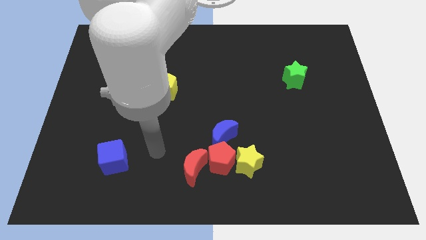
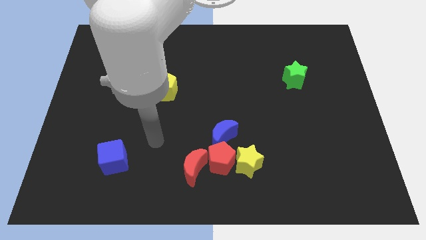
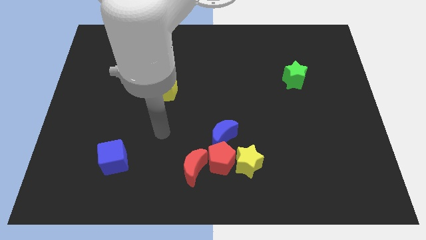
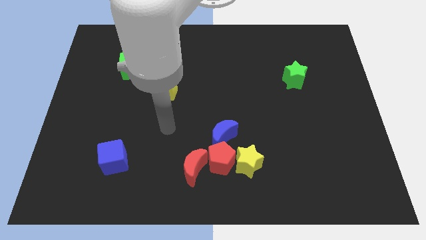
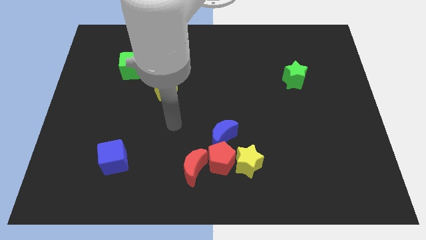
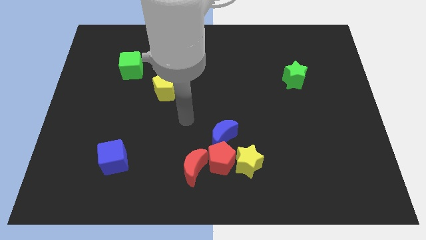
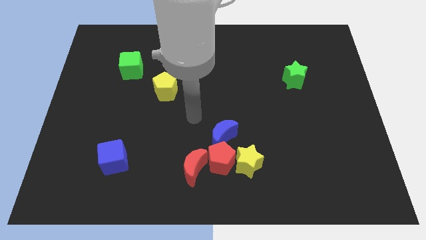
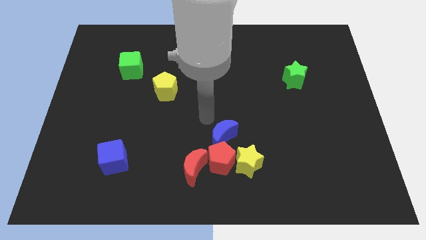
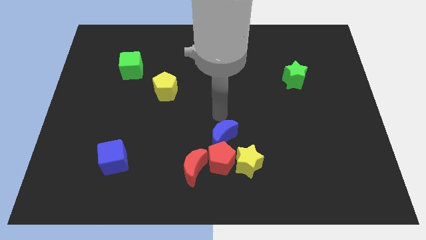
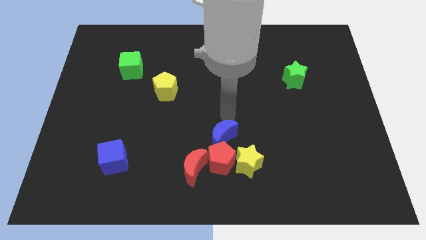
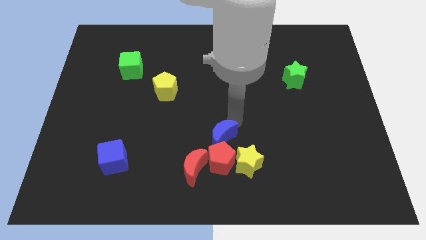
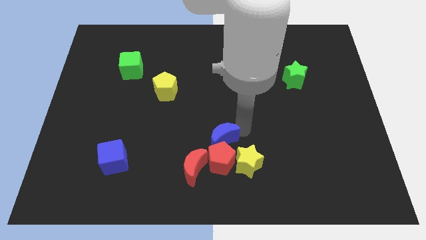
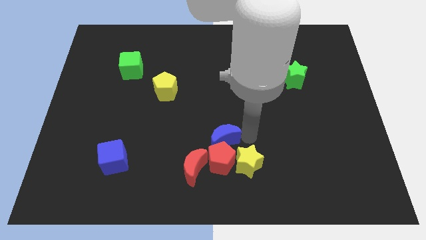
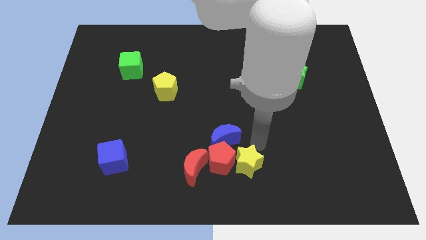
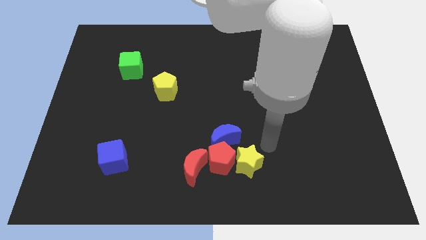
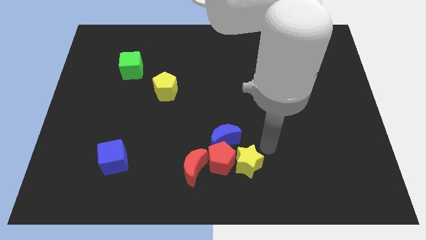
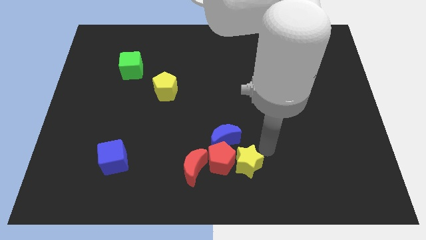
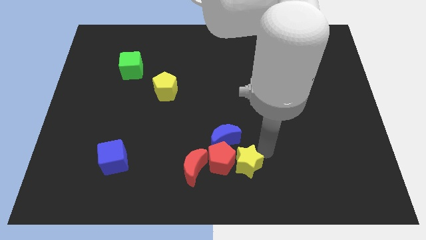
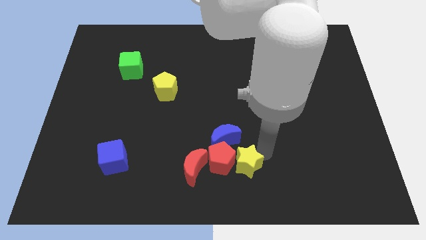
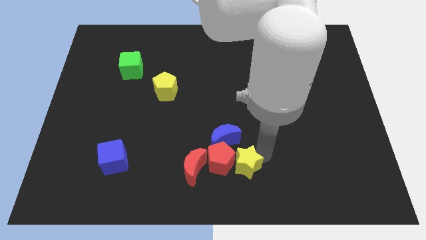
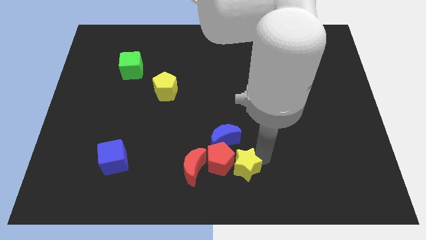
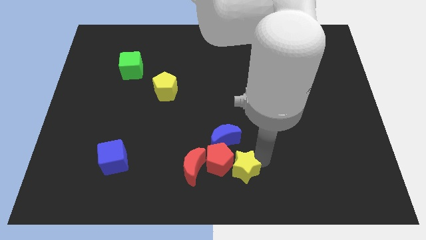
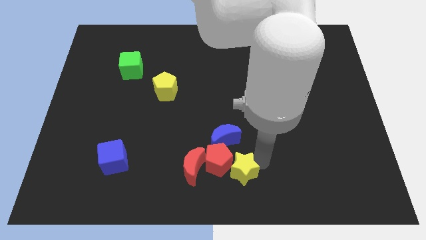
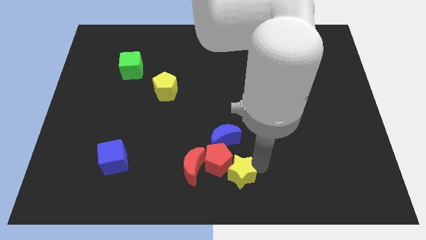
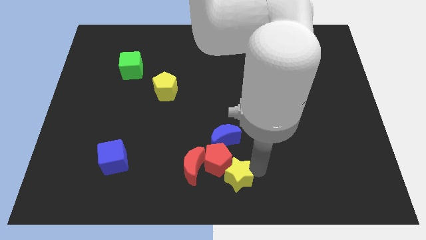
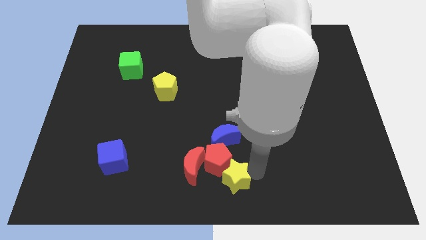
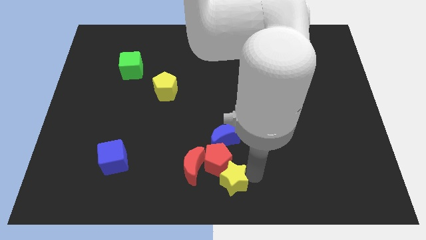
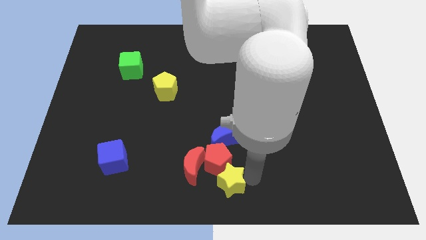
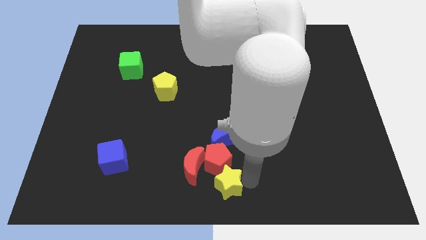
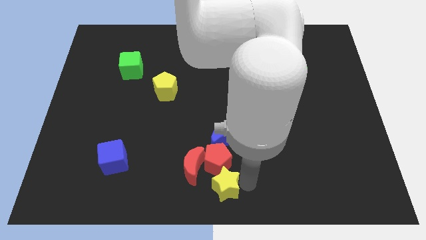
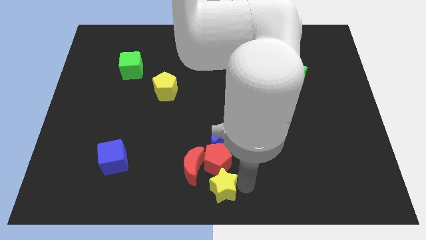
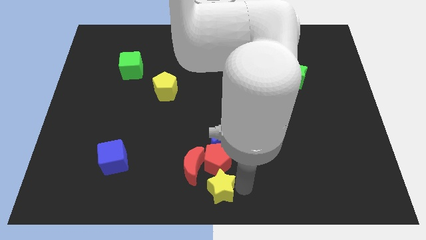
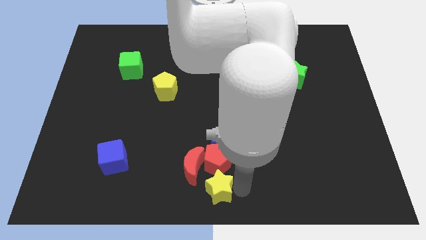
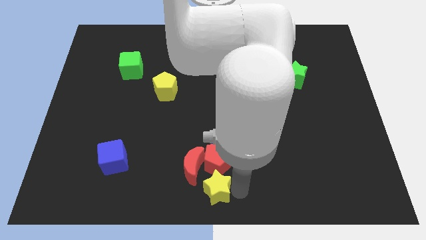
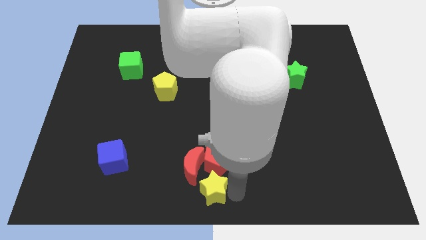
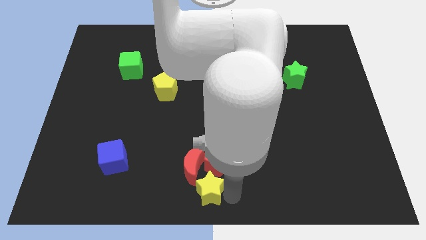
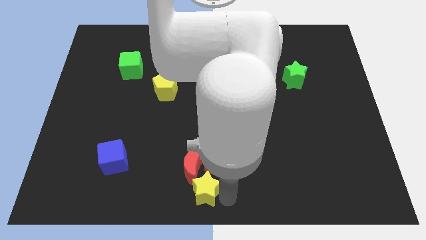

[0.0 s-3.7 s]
slightly move the yellow star to the left

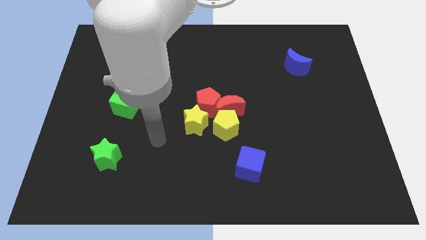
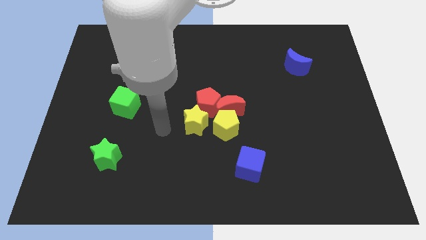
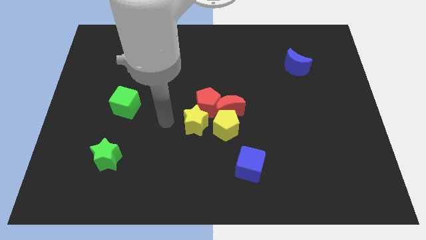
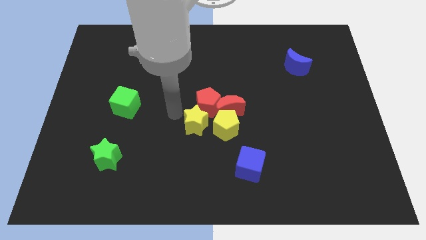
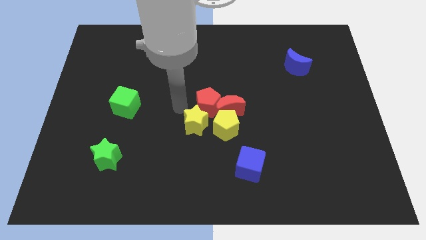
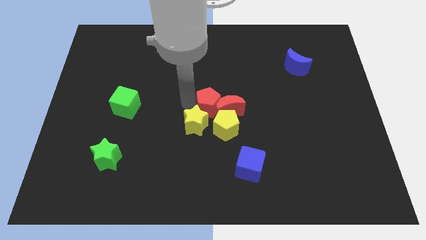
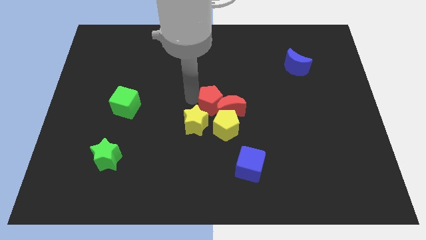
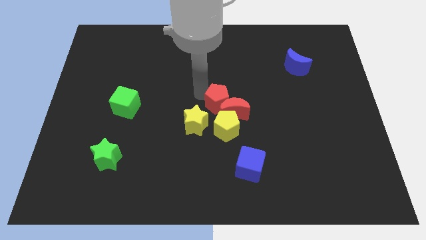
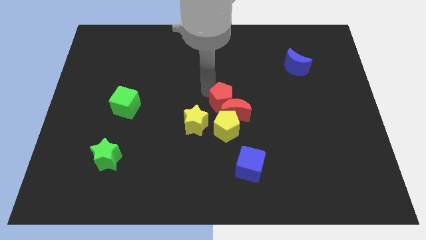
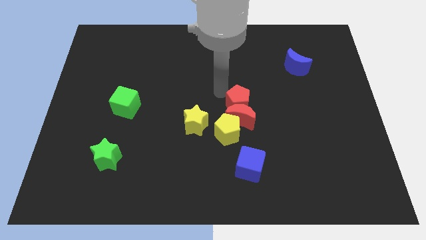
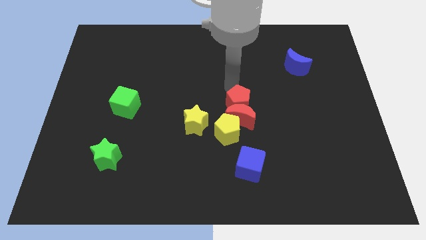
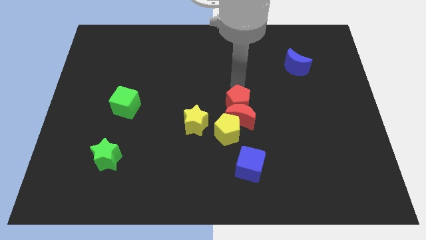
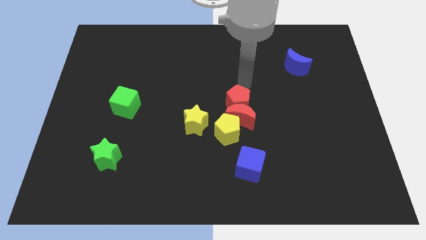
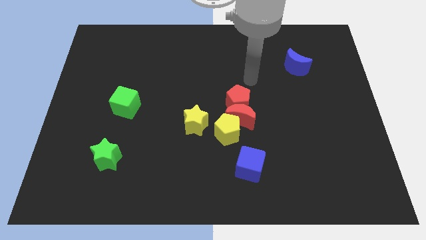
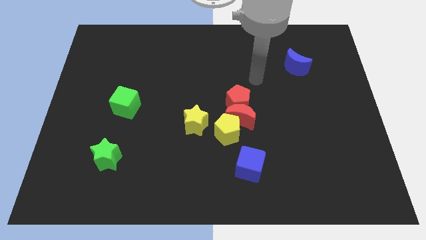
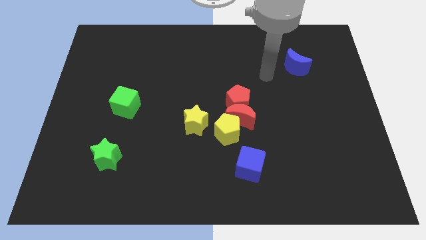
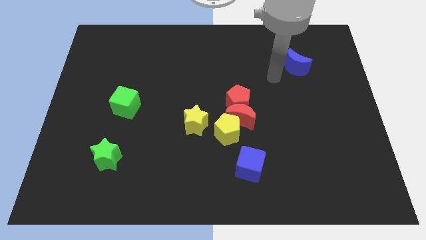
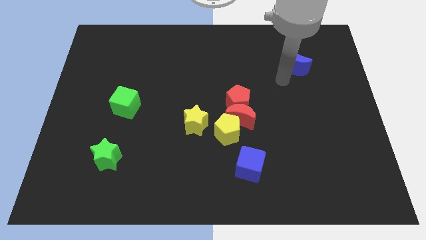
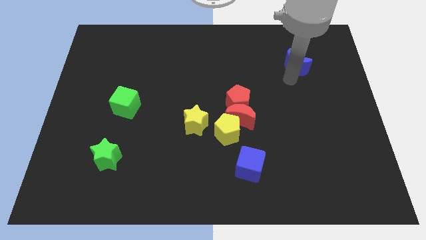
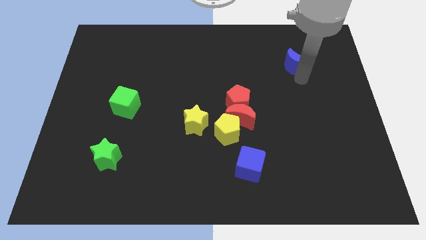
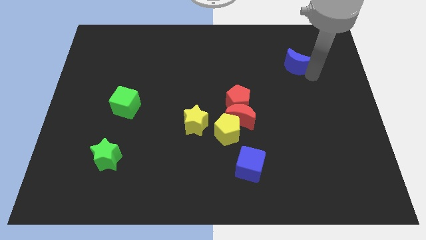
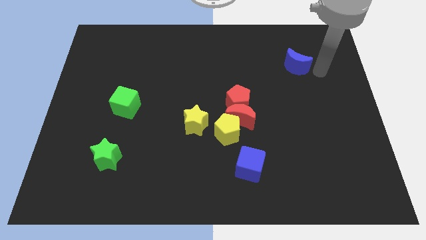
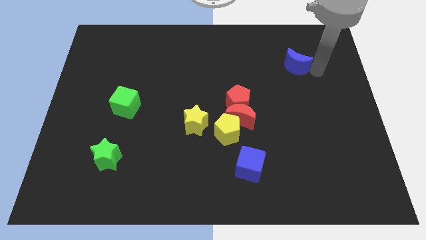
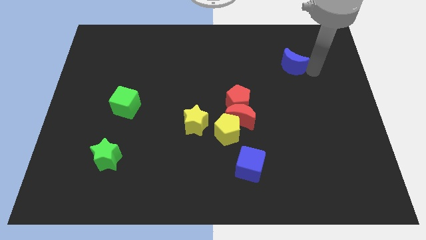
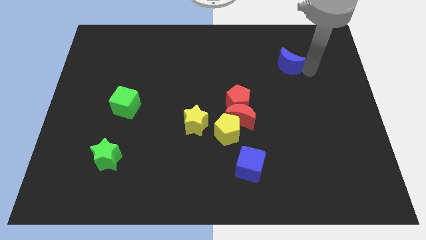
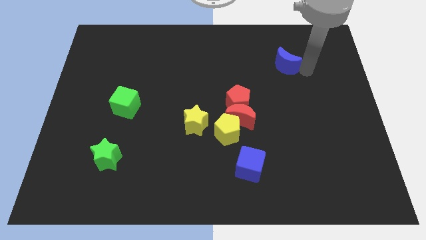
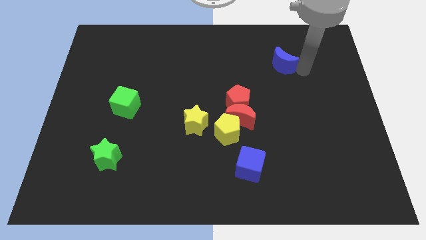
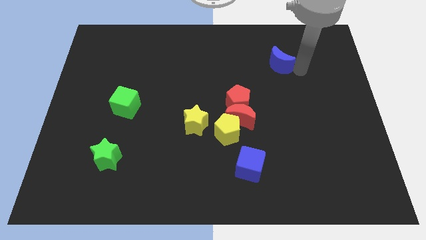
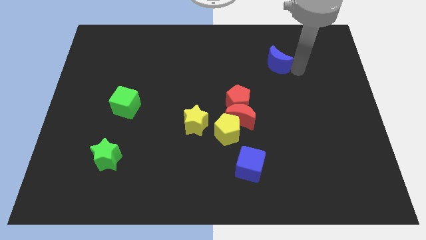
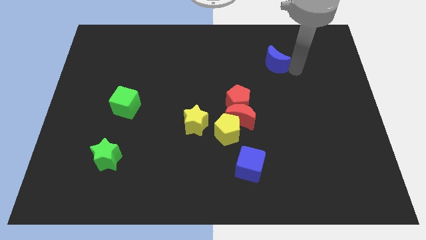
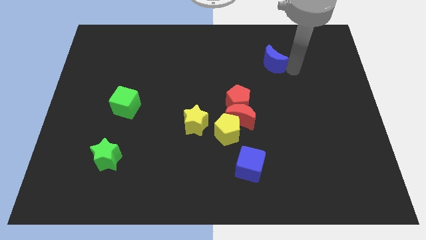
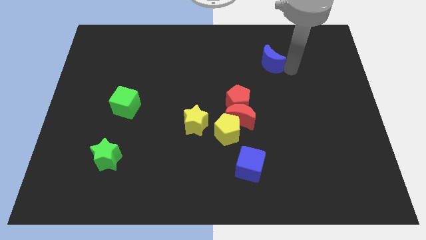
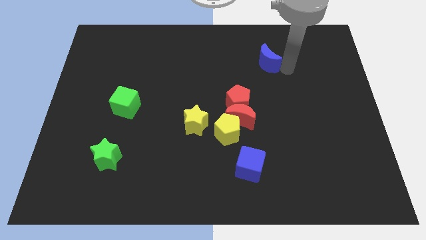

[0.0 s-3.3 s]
slightly move the blue moon to the left

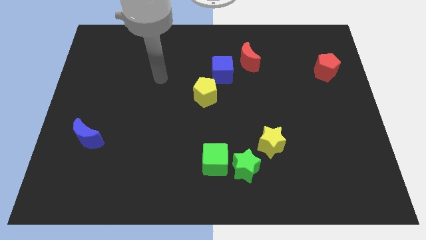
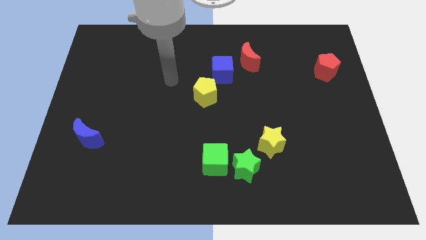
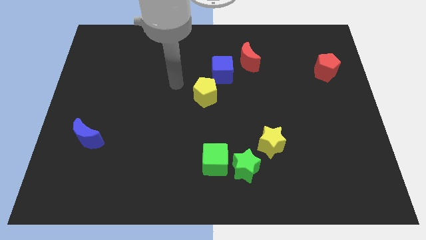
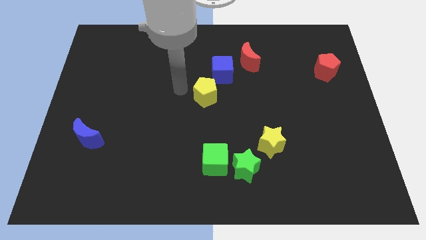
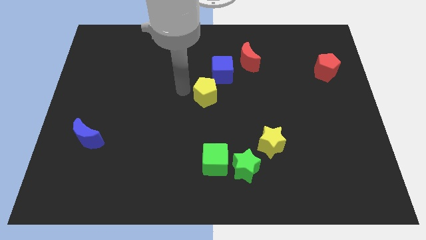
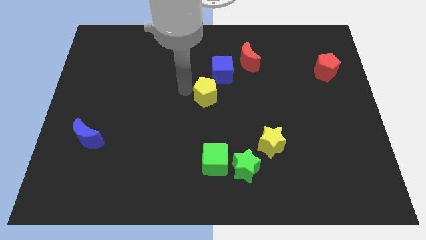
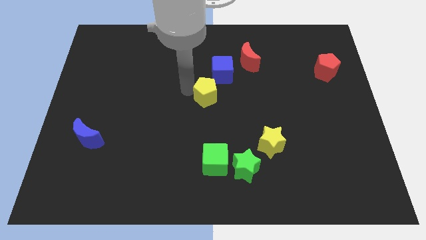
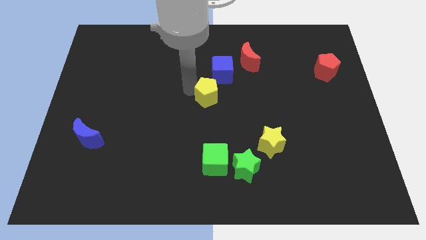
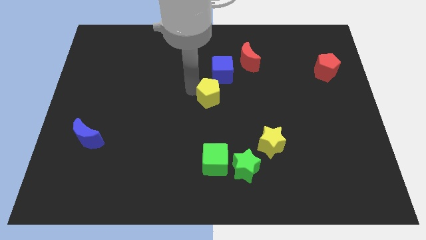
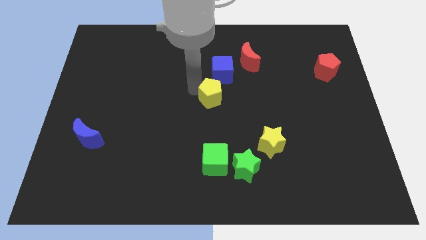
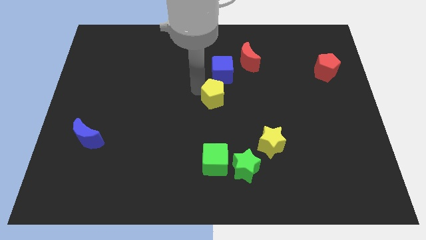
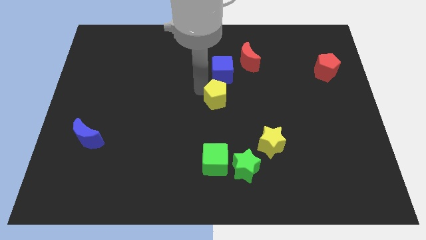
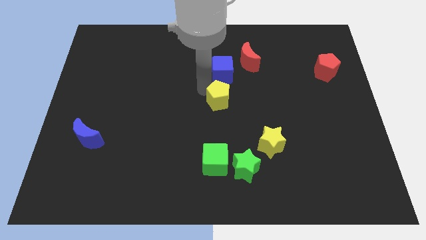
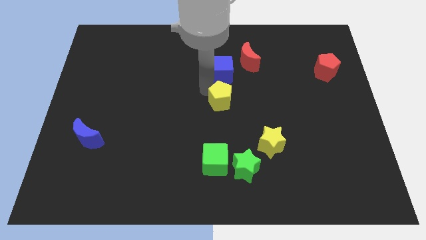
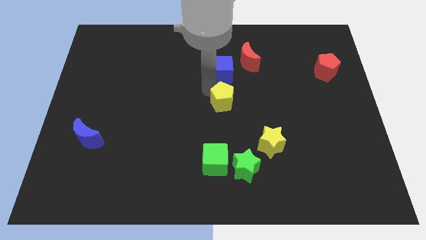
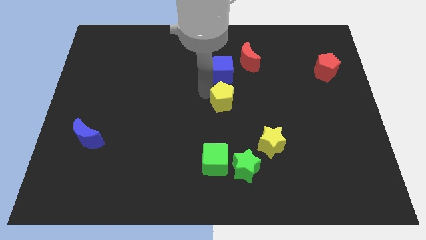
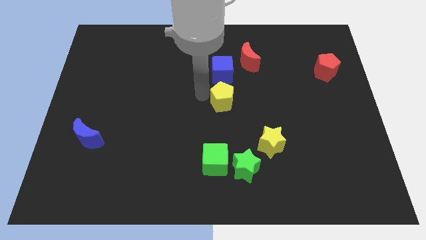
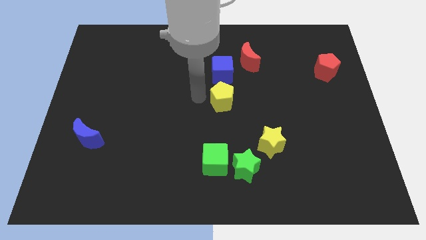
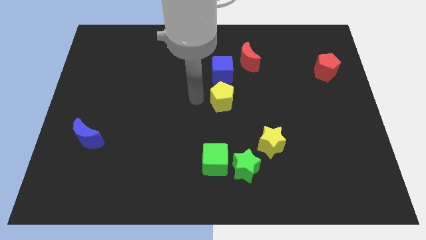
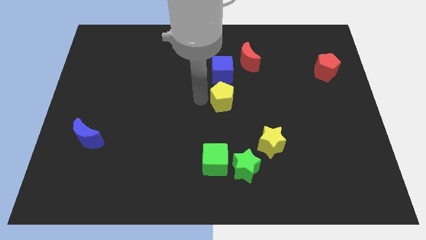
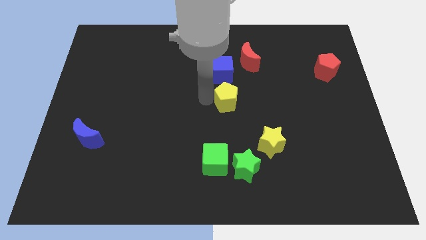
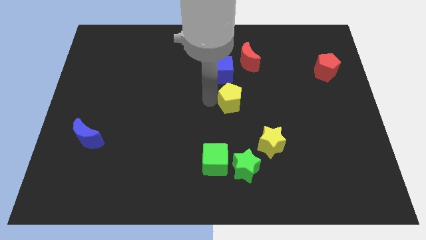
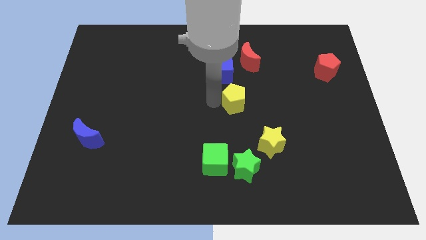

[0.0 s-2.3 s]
push the yellow pentagon a little bit right
